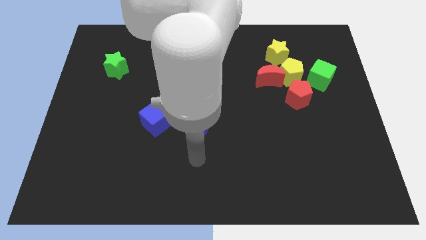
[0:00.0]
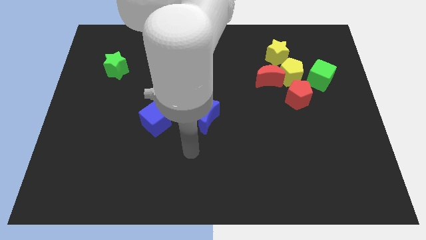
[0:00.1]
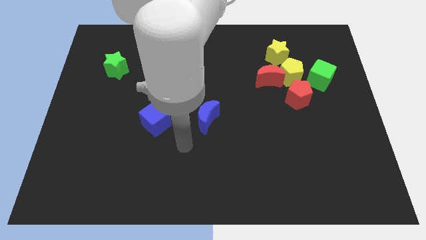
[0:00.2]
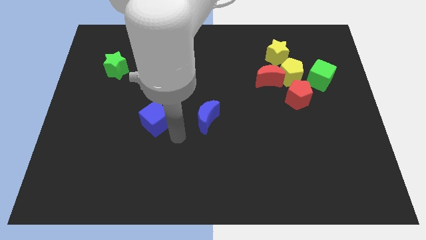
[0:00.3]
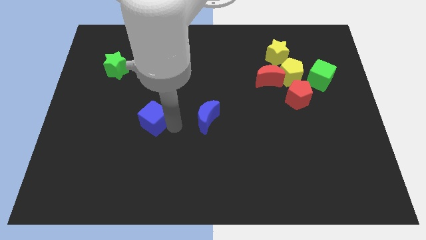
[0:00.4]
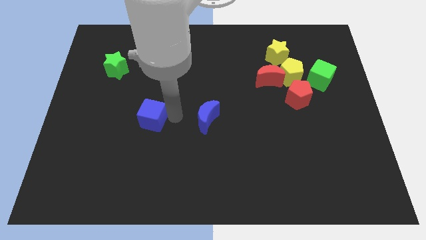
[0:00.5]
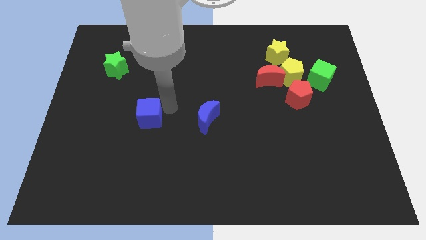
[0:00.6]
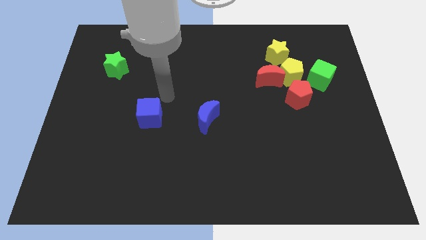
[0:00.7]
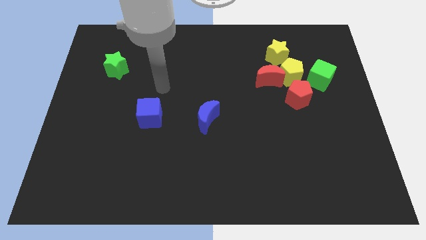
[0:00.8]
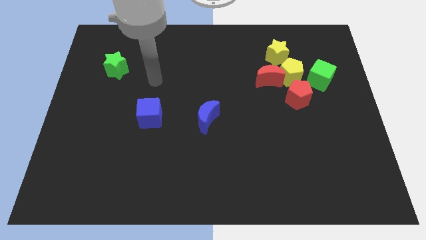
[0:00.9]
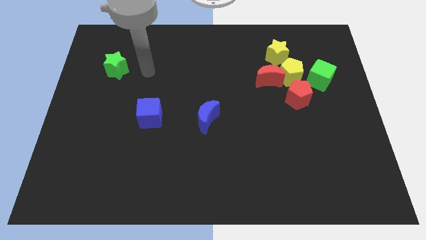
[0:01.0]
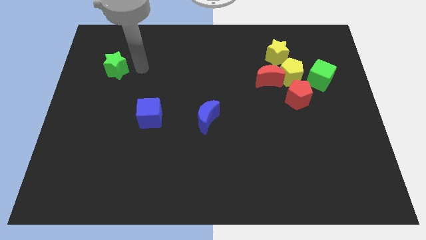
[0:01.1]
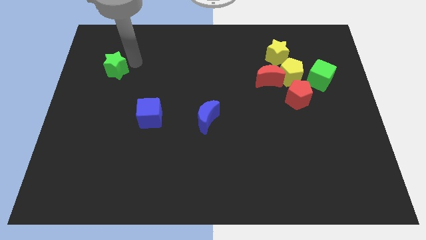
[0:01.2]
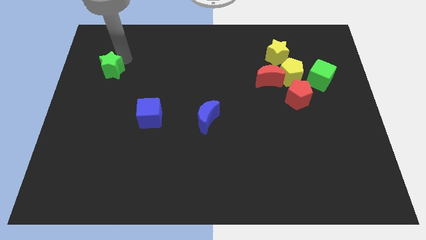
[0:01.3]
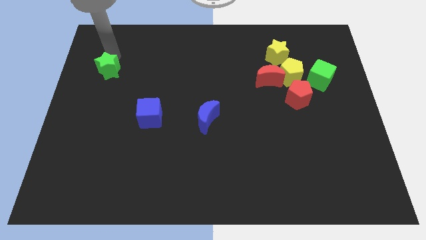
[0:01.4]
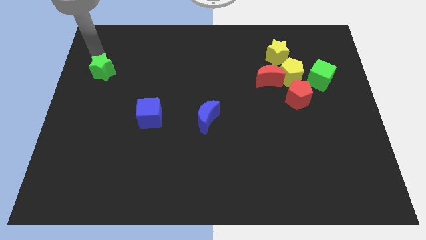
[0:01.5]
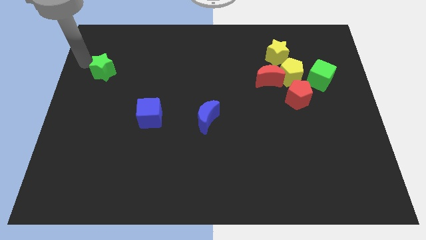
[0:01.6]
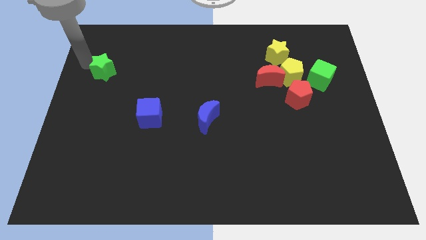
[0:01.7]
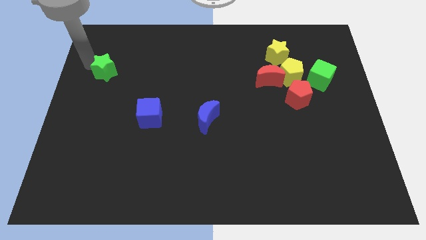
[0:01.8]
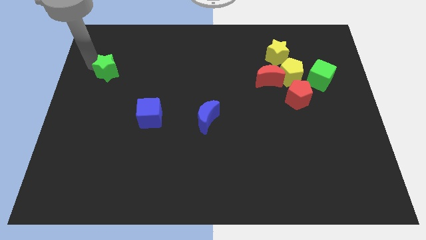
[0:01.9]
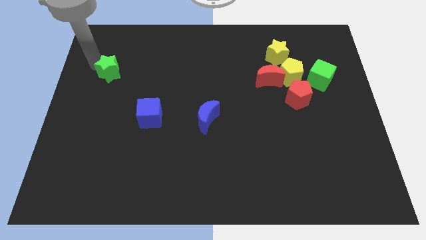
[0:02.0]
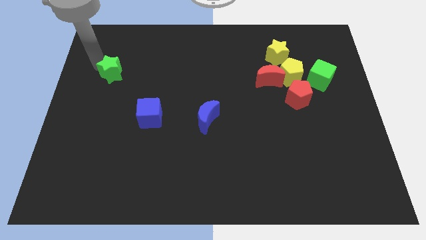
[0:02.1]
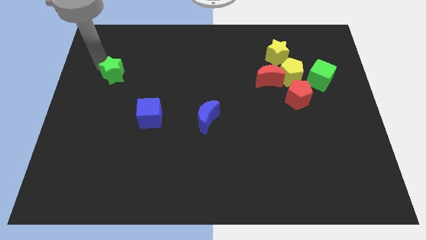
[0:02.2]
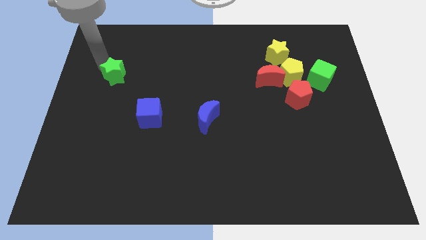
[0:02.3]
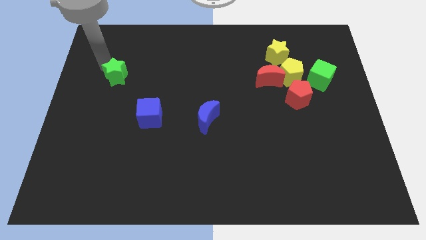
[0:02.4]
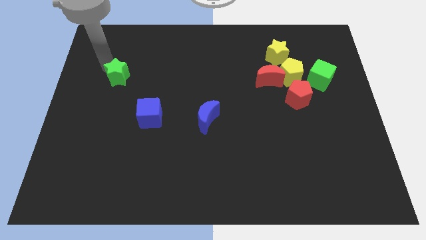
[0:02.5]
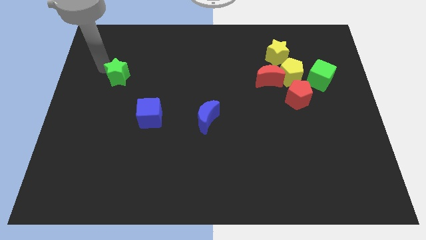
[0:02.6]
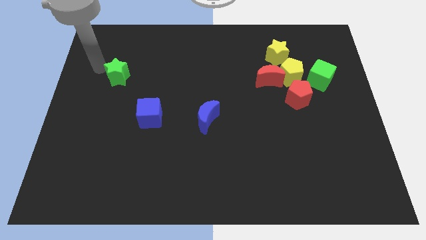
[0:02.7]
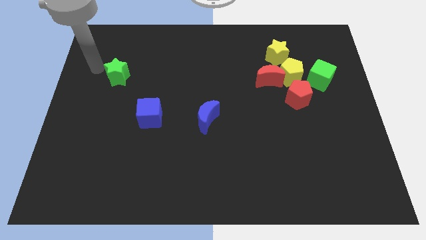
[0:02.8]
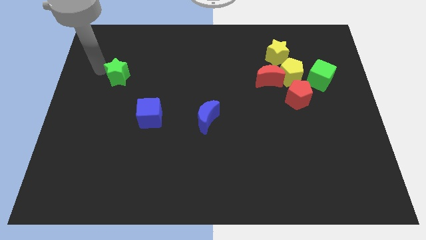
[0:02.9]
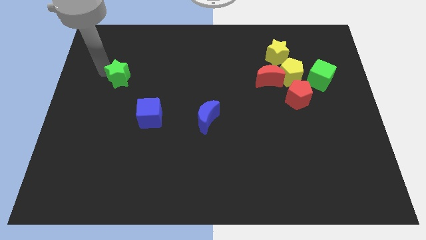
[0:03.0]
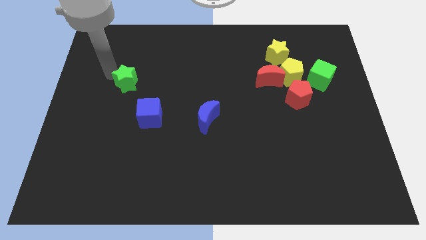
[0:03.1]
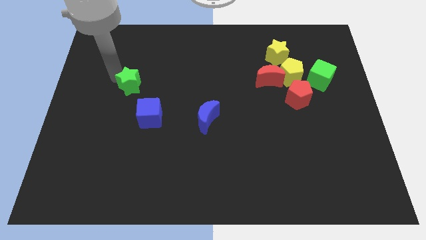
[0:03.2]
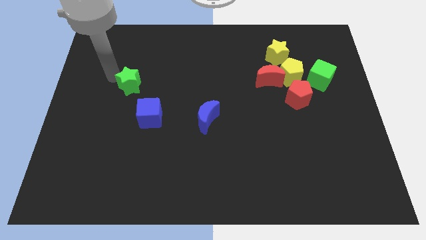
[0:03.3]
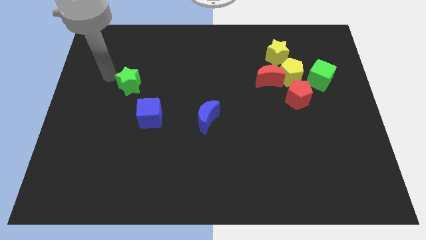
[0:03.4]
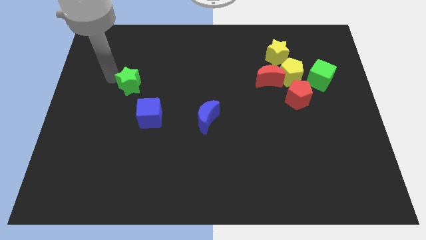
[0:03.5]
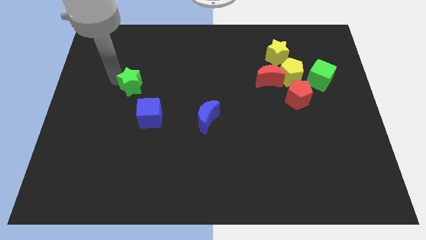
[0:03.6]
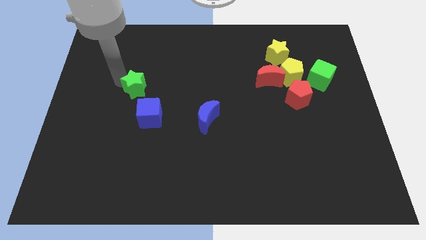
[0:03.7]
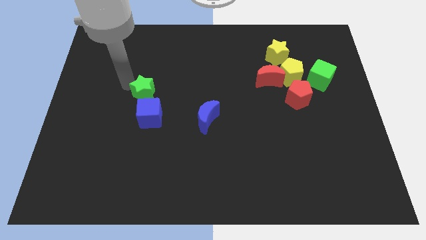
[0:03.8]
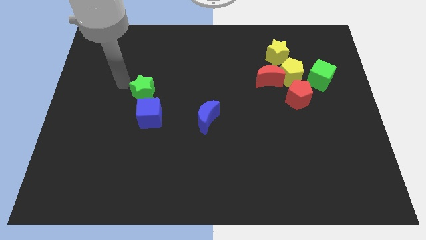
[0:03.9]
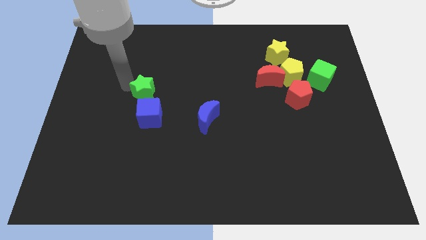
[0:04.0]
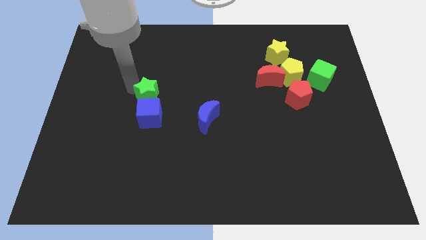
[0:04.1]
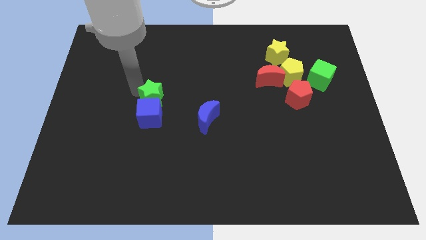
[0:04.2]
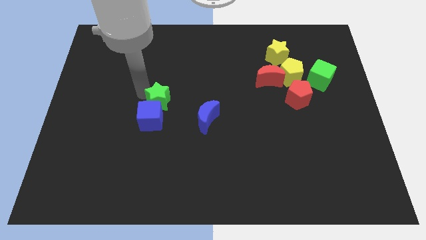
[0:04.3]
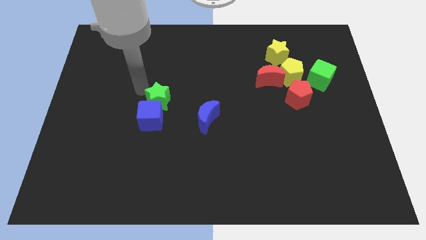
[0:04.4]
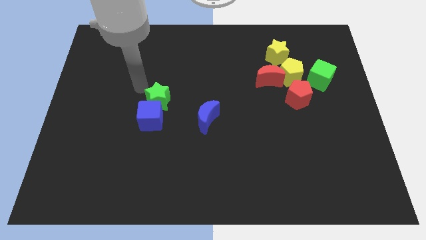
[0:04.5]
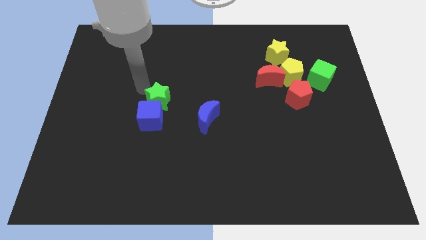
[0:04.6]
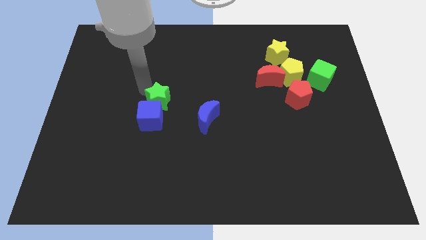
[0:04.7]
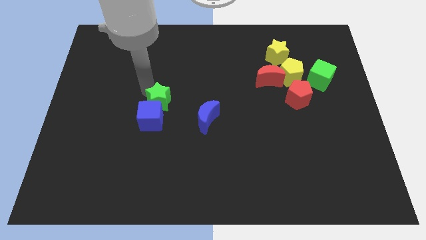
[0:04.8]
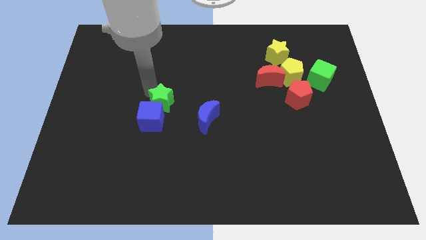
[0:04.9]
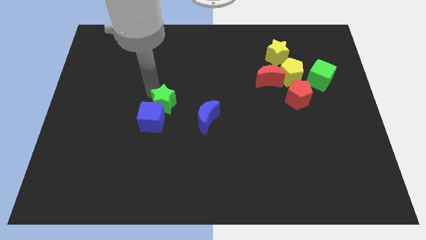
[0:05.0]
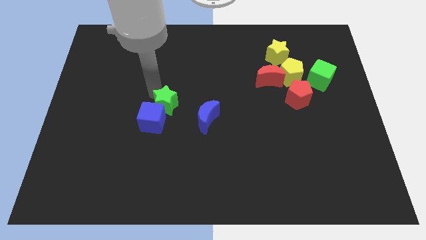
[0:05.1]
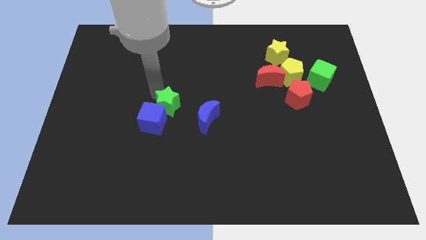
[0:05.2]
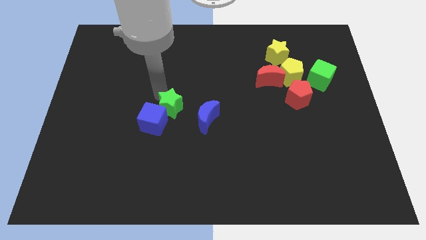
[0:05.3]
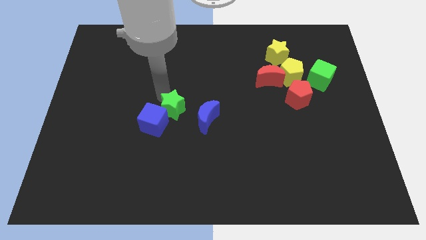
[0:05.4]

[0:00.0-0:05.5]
move the green star diagonally downwards and to the right

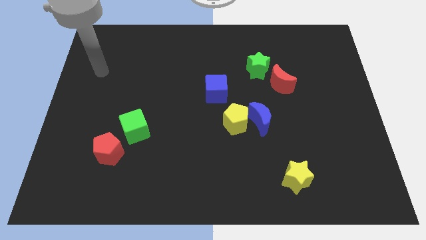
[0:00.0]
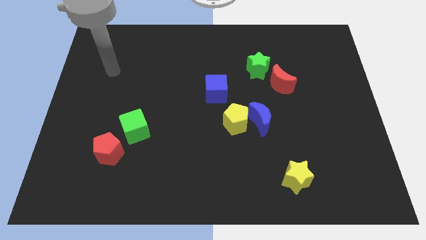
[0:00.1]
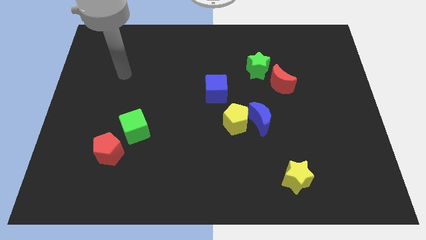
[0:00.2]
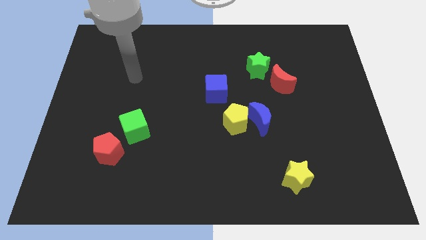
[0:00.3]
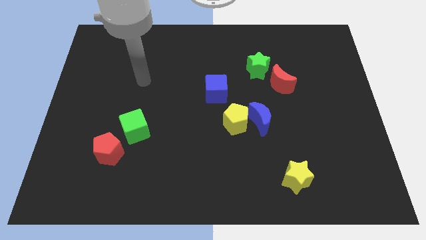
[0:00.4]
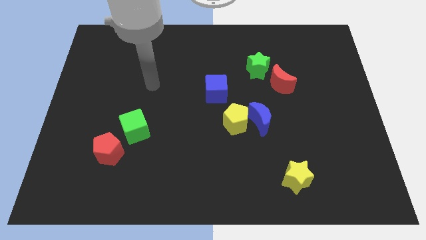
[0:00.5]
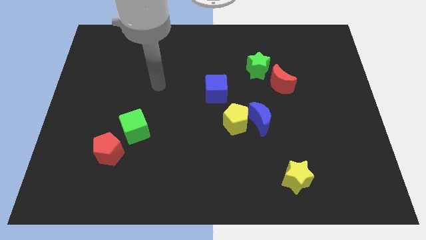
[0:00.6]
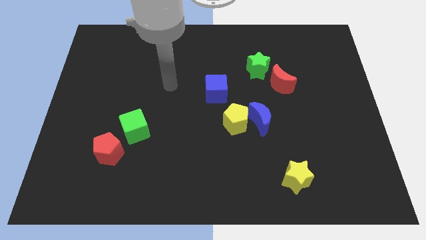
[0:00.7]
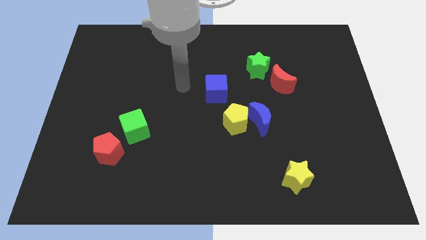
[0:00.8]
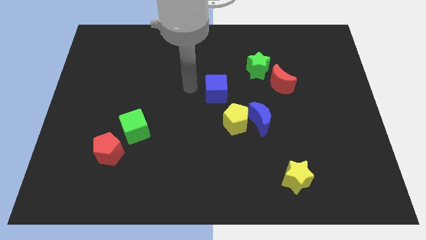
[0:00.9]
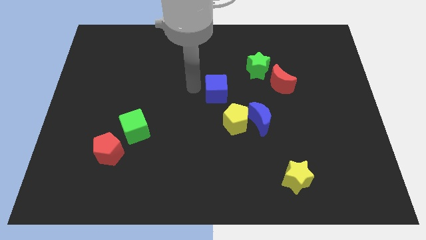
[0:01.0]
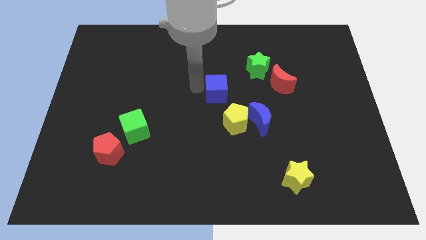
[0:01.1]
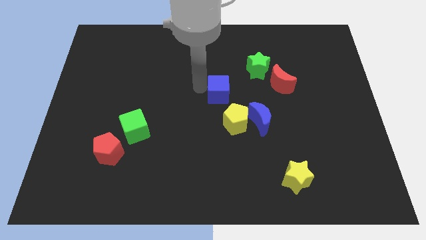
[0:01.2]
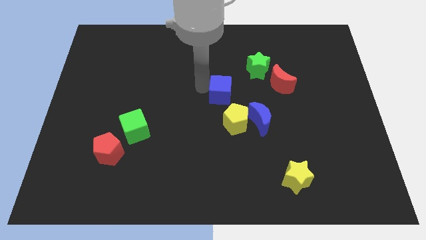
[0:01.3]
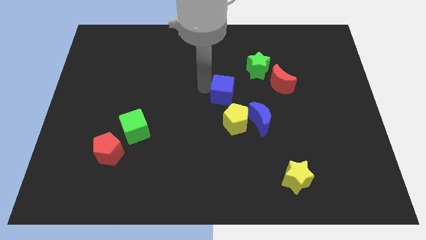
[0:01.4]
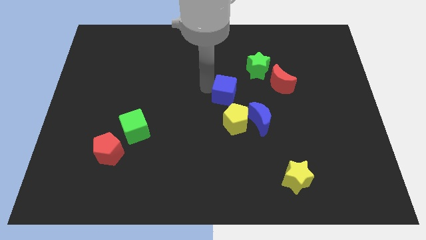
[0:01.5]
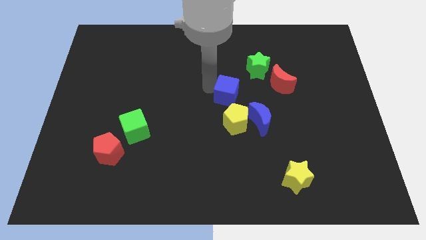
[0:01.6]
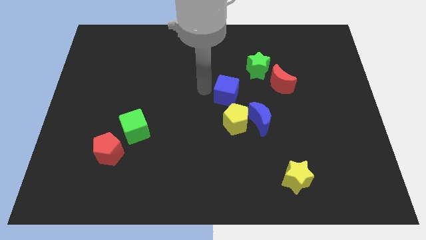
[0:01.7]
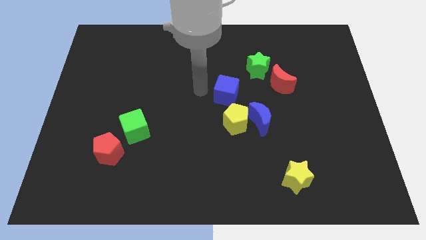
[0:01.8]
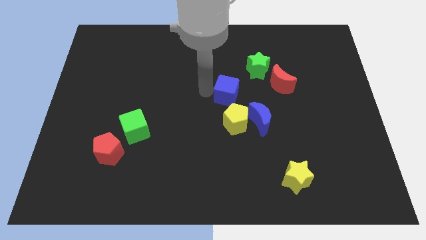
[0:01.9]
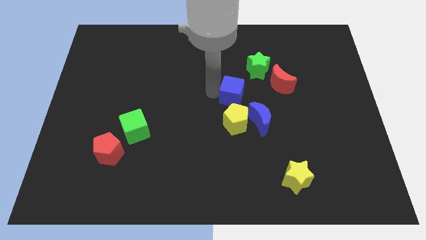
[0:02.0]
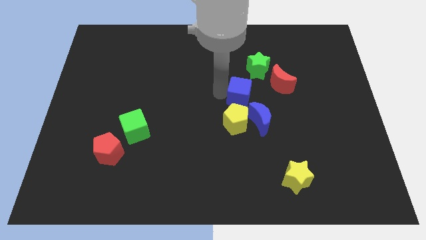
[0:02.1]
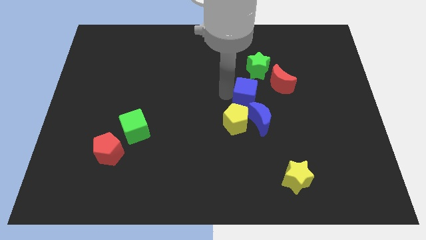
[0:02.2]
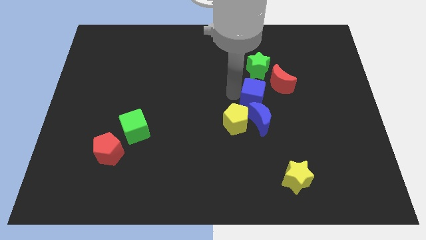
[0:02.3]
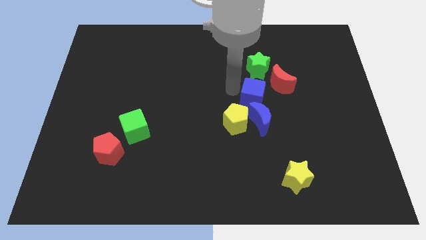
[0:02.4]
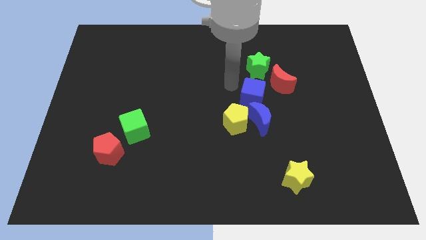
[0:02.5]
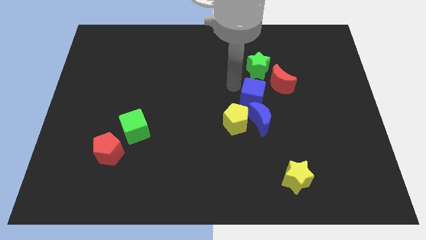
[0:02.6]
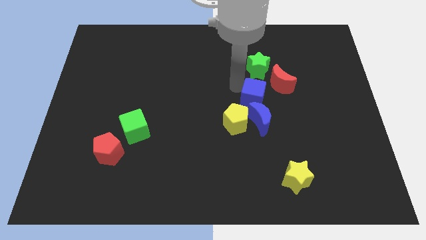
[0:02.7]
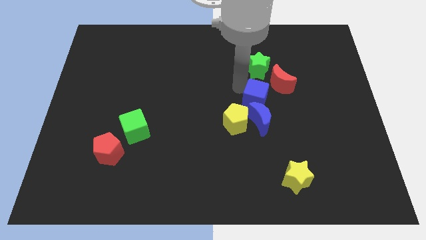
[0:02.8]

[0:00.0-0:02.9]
slide the blue cube somewhat diagonally down and right
